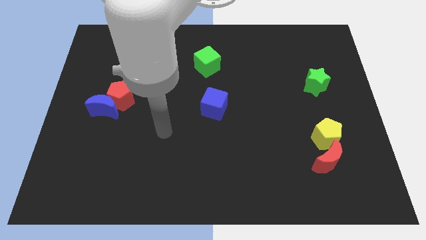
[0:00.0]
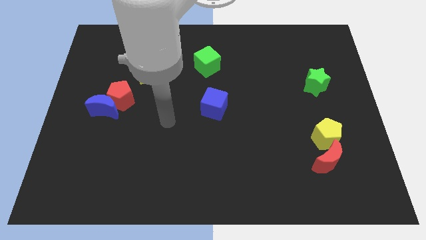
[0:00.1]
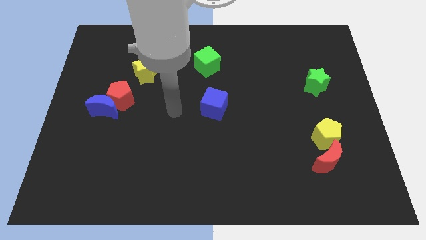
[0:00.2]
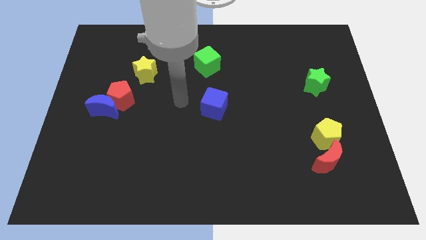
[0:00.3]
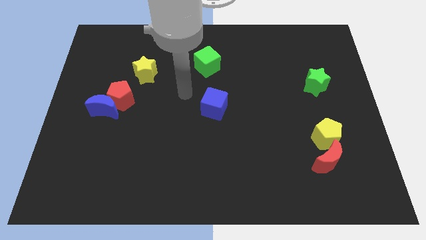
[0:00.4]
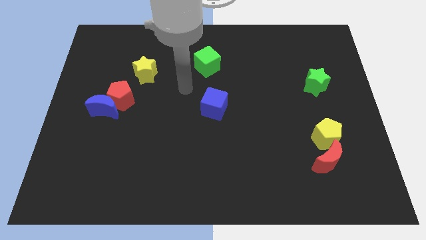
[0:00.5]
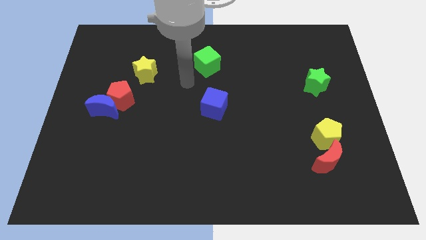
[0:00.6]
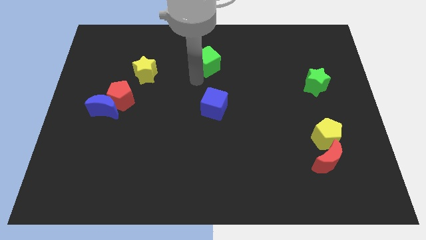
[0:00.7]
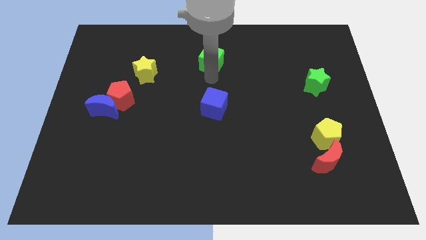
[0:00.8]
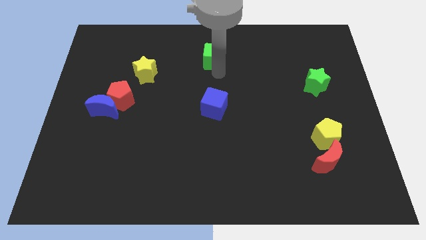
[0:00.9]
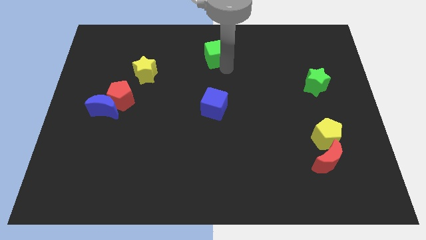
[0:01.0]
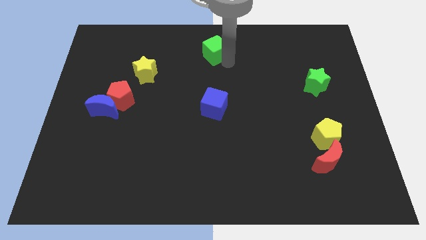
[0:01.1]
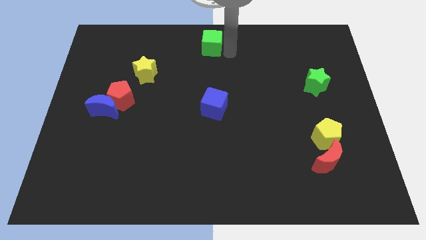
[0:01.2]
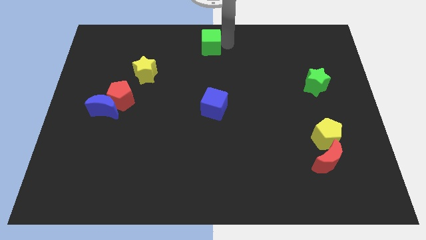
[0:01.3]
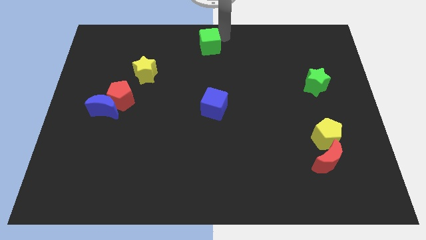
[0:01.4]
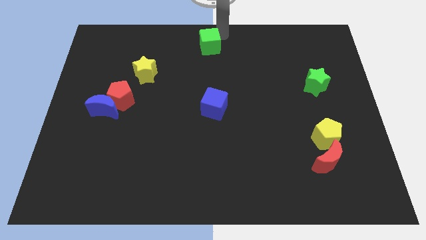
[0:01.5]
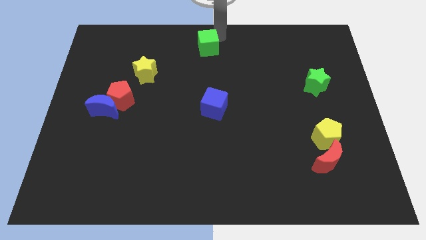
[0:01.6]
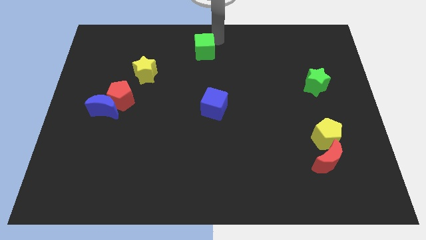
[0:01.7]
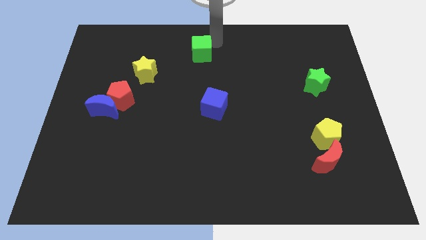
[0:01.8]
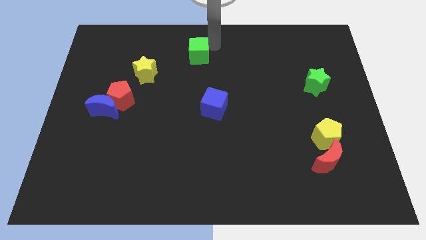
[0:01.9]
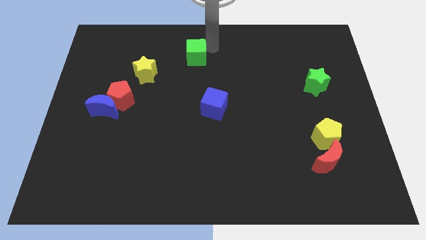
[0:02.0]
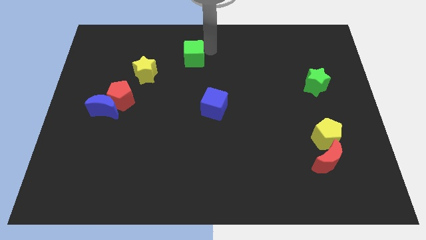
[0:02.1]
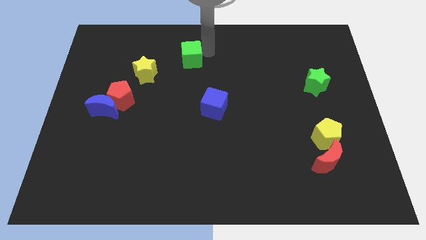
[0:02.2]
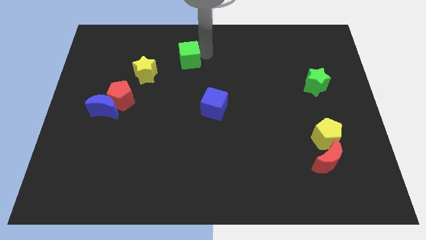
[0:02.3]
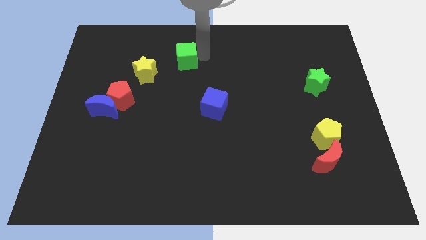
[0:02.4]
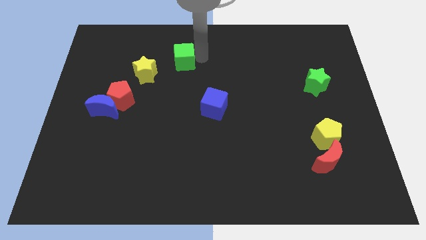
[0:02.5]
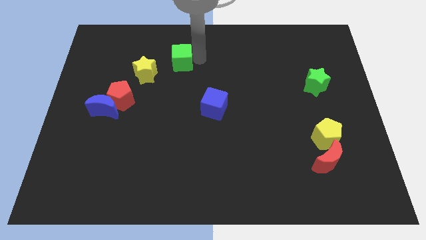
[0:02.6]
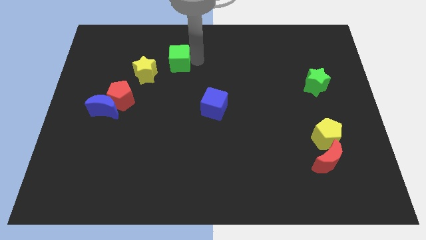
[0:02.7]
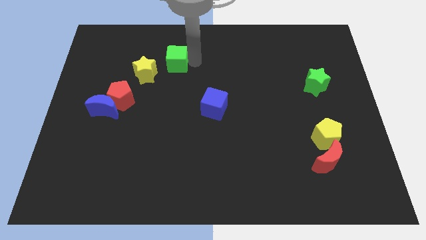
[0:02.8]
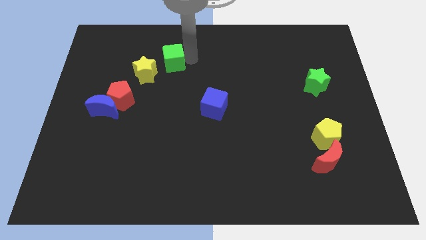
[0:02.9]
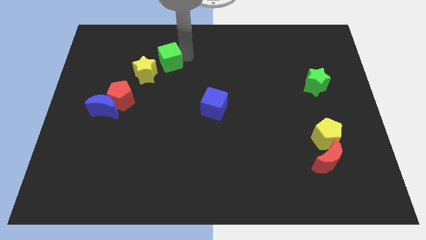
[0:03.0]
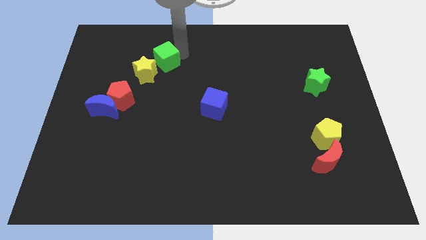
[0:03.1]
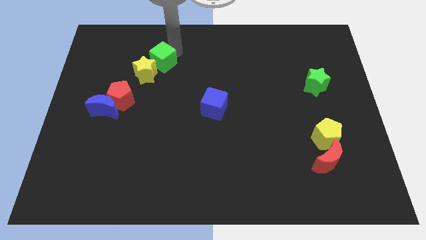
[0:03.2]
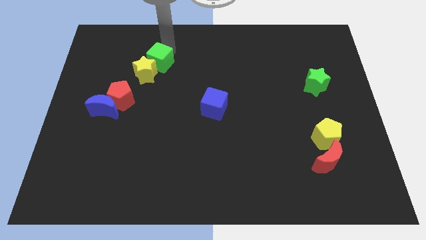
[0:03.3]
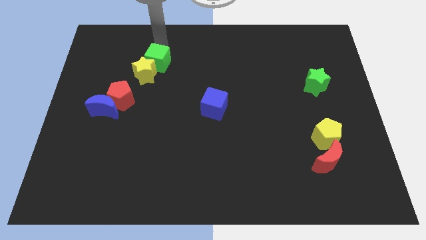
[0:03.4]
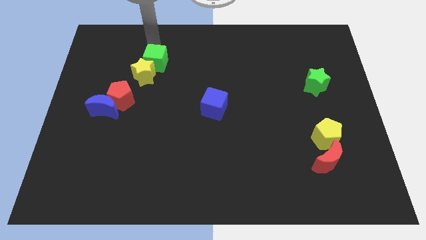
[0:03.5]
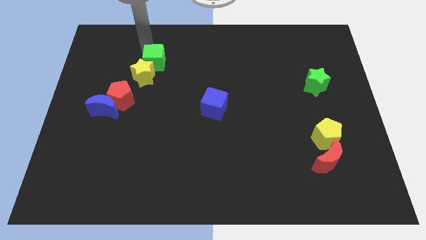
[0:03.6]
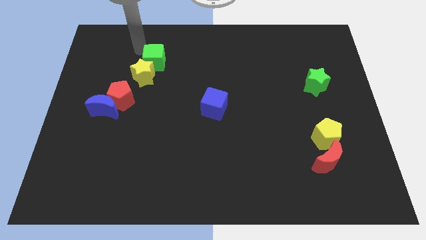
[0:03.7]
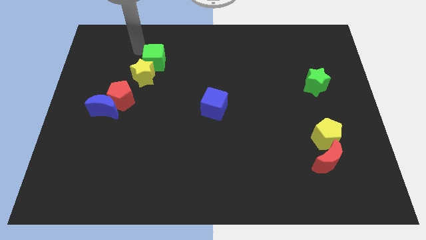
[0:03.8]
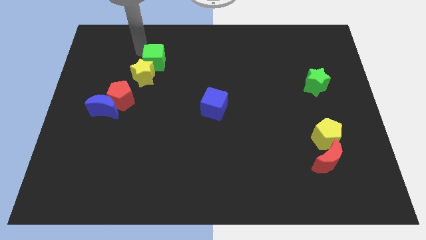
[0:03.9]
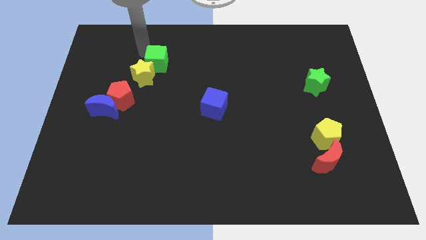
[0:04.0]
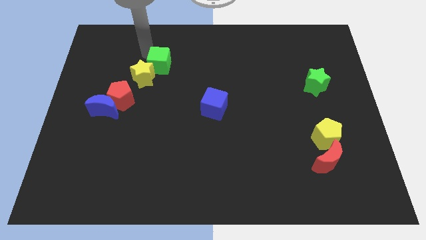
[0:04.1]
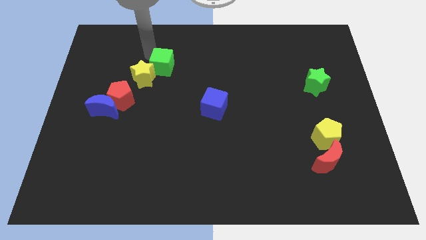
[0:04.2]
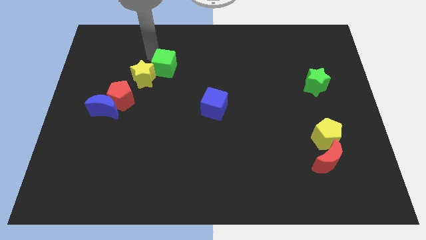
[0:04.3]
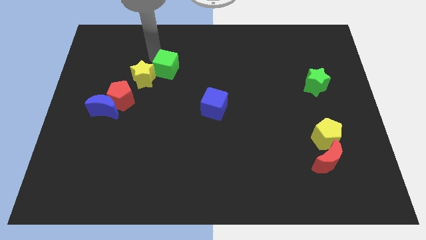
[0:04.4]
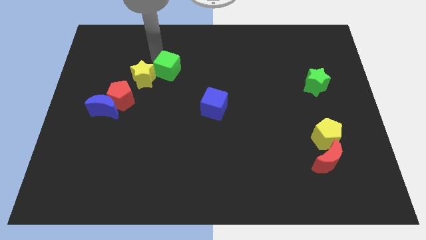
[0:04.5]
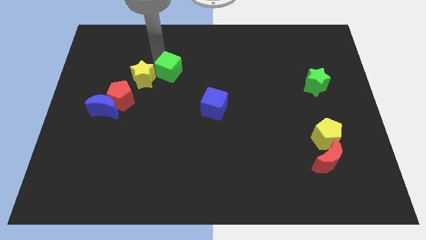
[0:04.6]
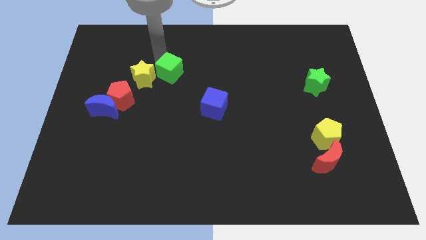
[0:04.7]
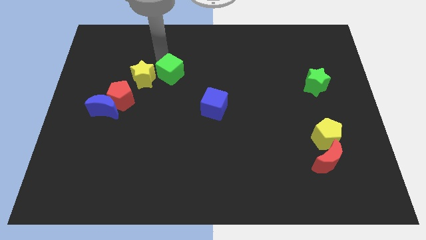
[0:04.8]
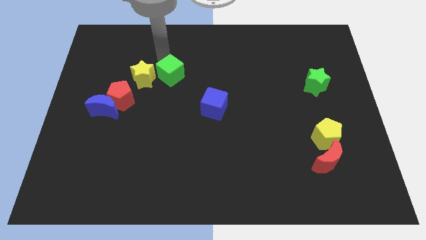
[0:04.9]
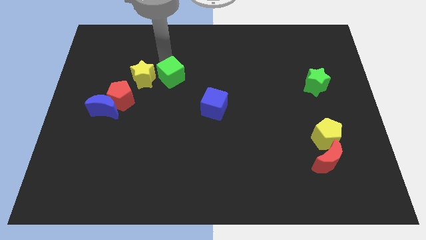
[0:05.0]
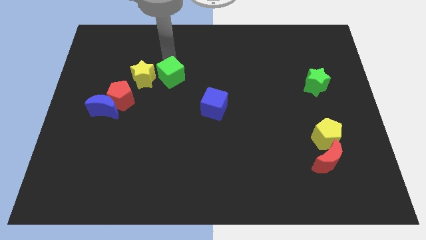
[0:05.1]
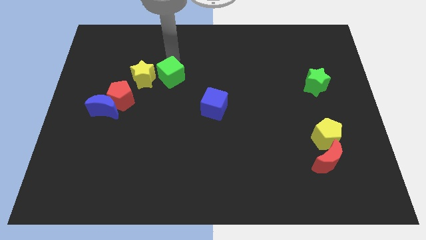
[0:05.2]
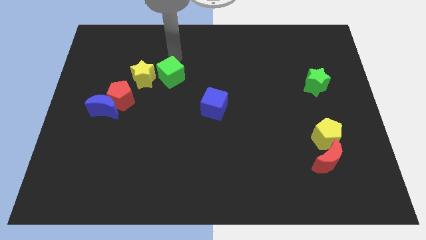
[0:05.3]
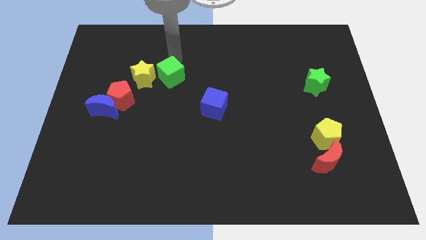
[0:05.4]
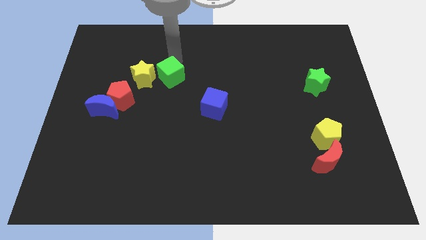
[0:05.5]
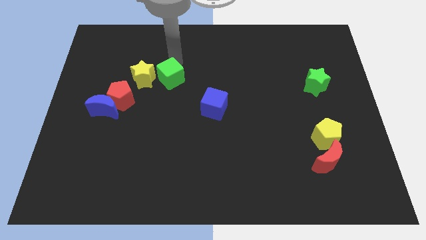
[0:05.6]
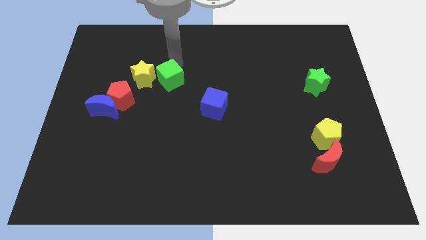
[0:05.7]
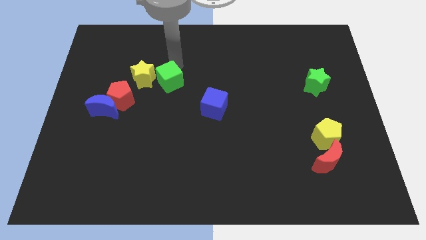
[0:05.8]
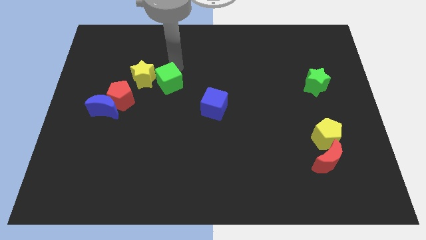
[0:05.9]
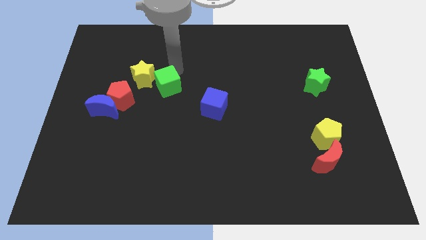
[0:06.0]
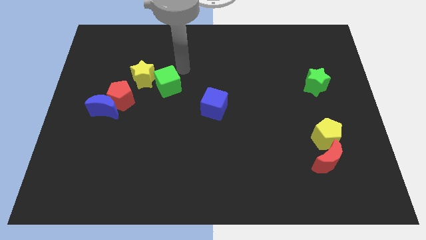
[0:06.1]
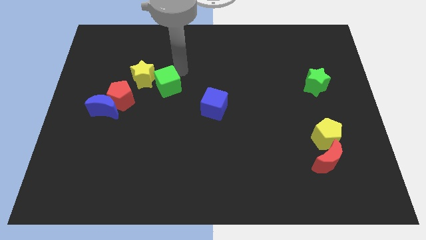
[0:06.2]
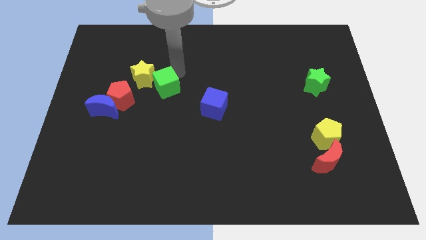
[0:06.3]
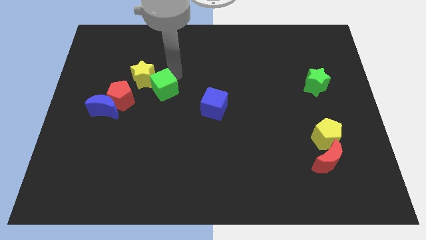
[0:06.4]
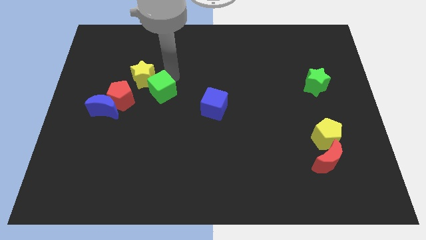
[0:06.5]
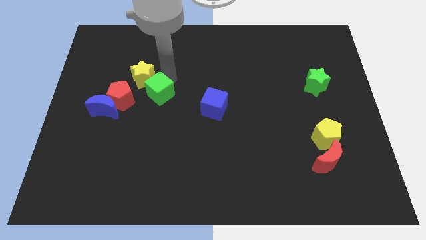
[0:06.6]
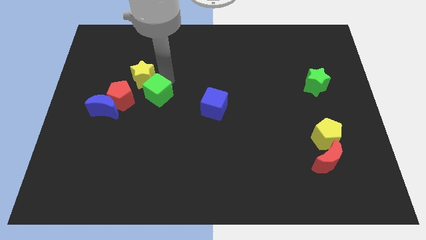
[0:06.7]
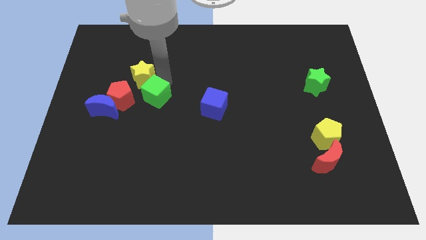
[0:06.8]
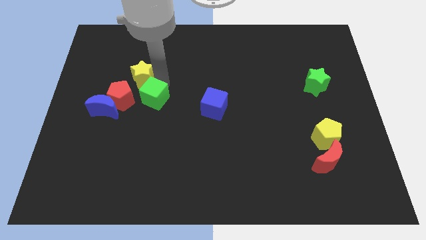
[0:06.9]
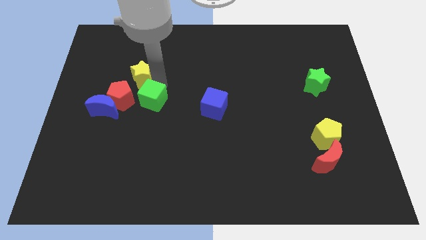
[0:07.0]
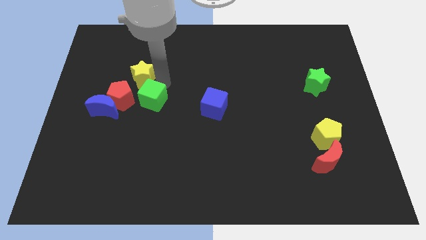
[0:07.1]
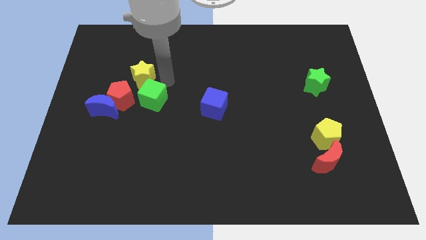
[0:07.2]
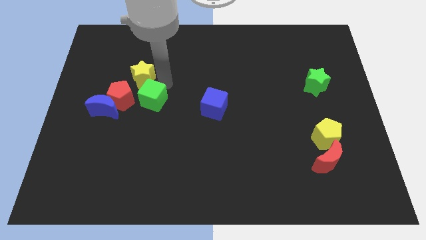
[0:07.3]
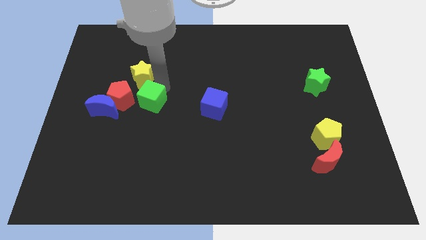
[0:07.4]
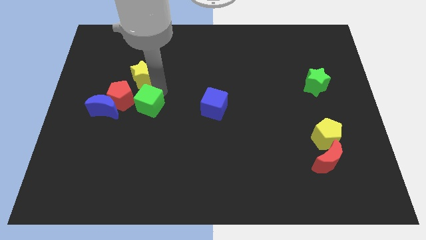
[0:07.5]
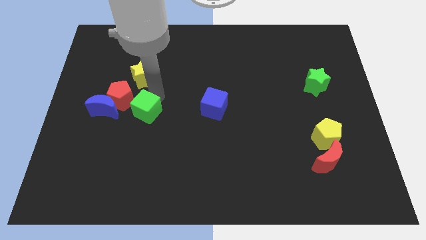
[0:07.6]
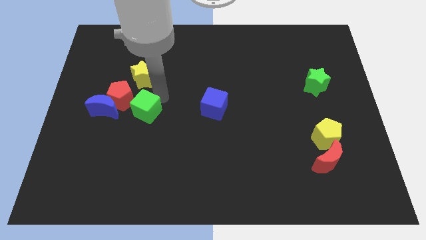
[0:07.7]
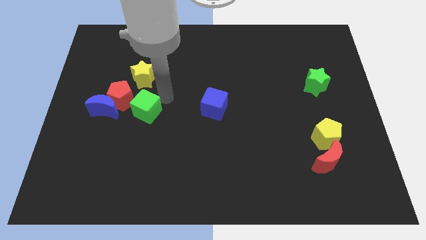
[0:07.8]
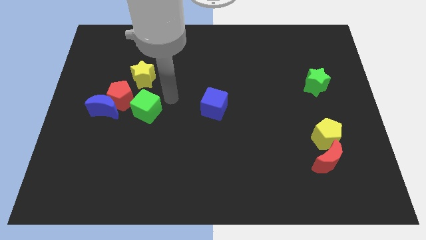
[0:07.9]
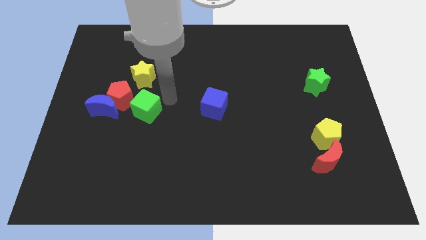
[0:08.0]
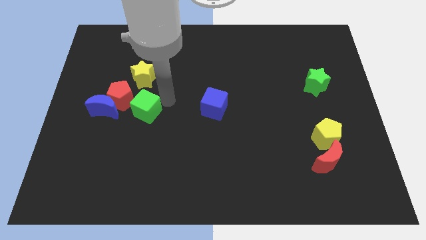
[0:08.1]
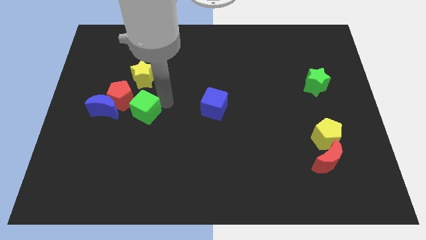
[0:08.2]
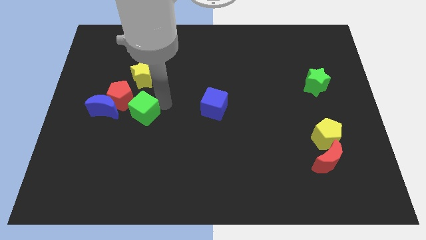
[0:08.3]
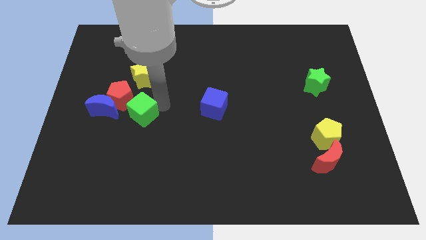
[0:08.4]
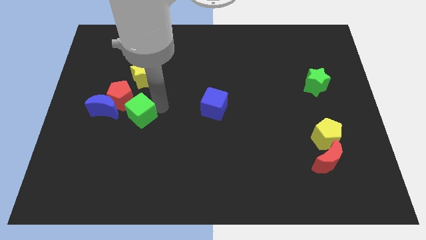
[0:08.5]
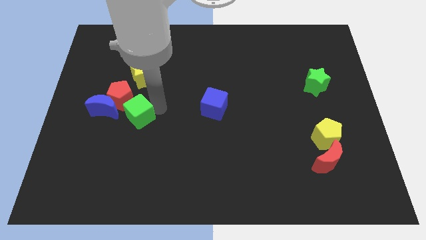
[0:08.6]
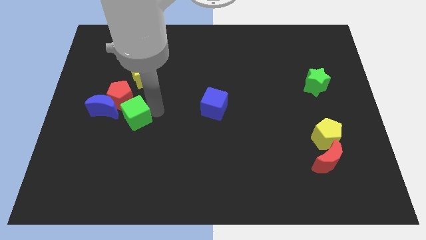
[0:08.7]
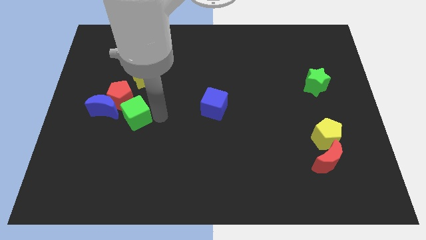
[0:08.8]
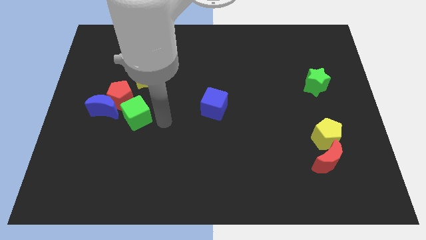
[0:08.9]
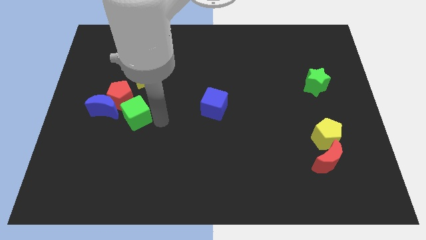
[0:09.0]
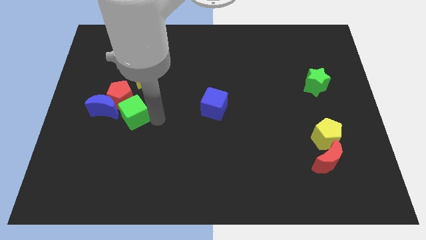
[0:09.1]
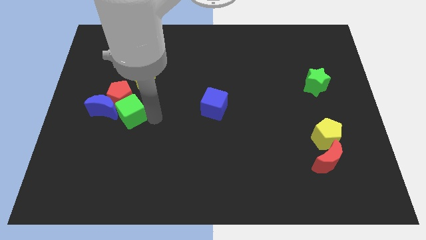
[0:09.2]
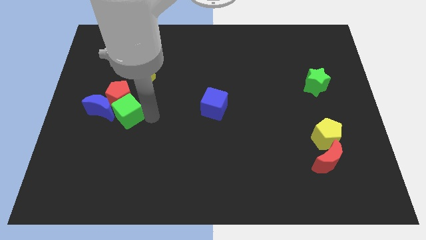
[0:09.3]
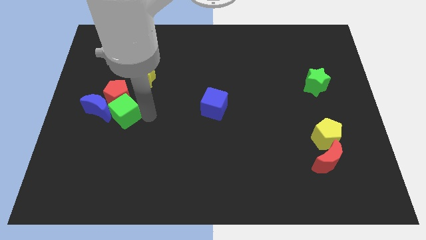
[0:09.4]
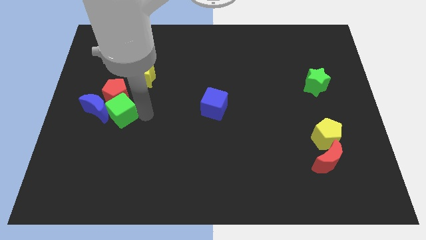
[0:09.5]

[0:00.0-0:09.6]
push the green cube to the blue moon
